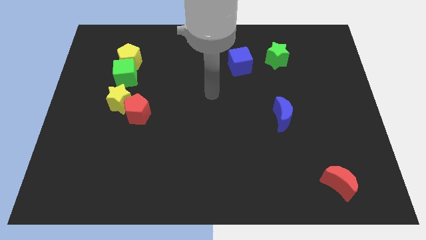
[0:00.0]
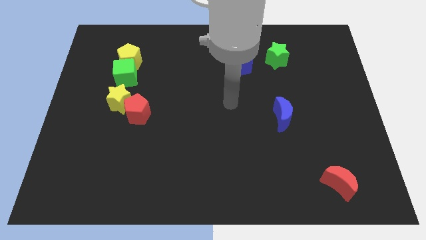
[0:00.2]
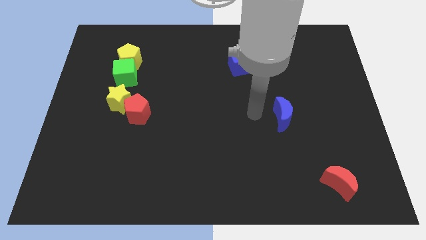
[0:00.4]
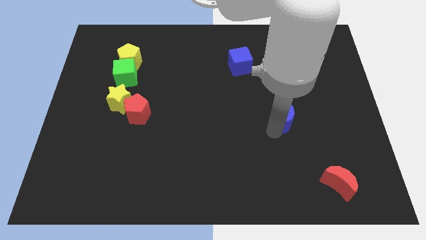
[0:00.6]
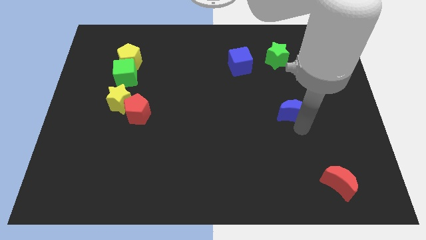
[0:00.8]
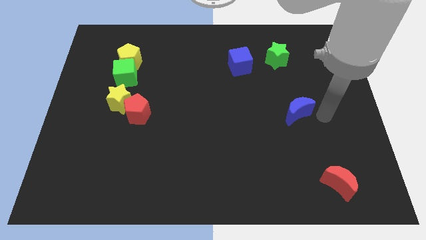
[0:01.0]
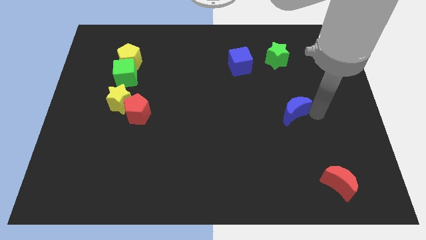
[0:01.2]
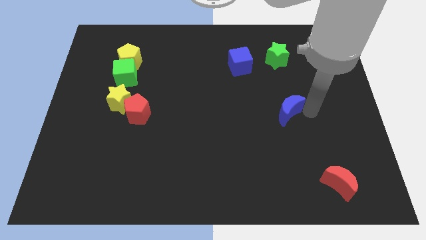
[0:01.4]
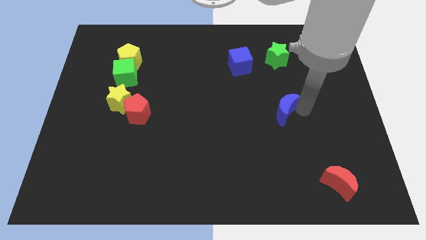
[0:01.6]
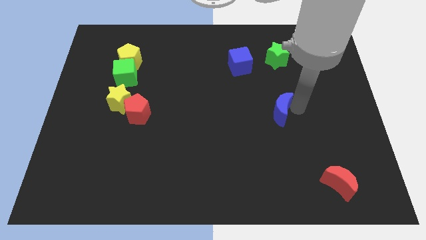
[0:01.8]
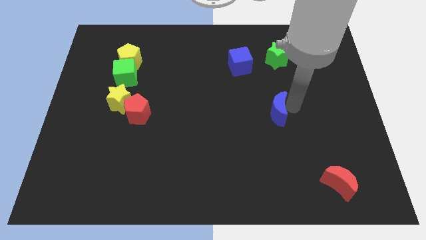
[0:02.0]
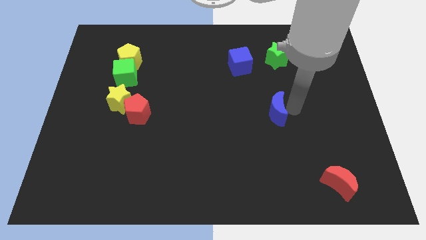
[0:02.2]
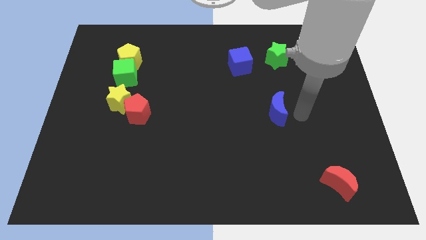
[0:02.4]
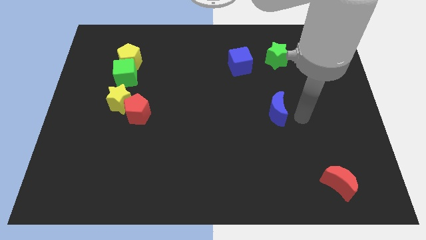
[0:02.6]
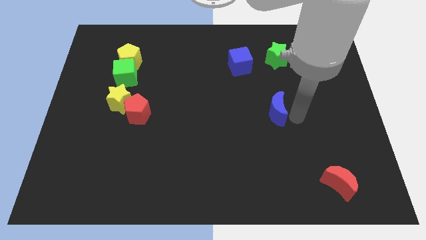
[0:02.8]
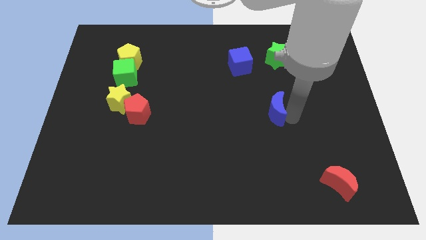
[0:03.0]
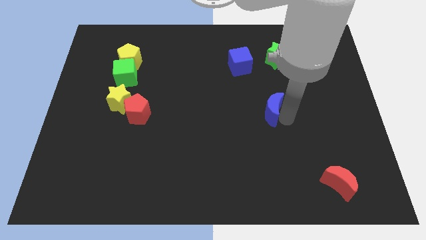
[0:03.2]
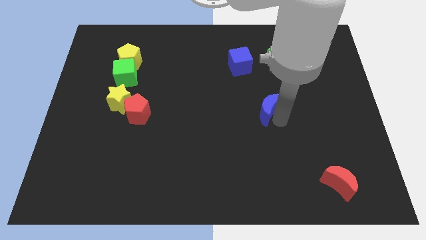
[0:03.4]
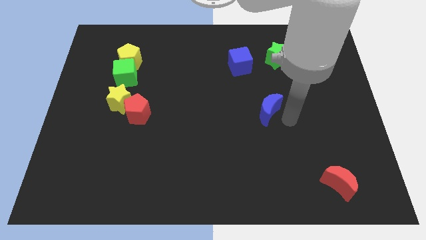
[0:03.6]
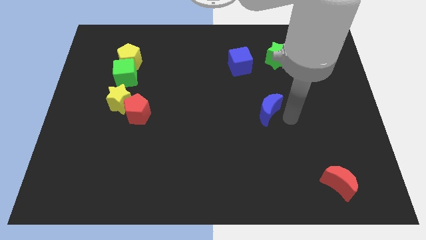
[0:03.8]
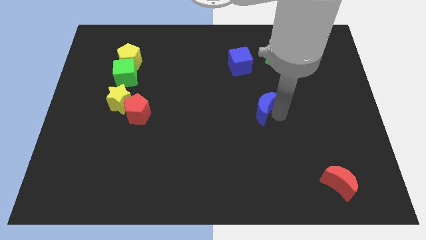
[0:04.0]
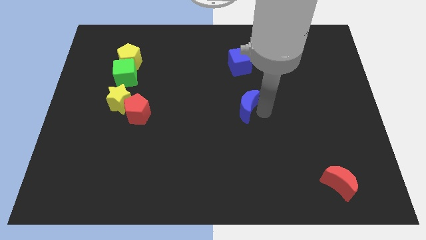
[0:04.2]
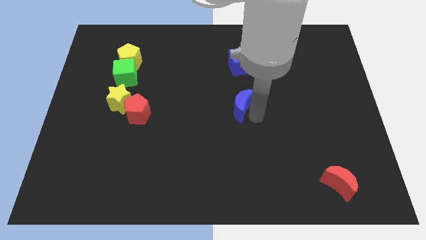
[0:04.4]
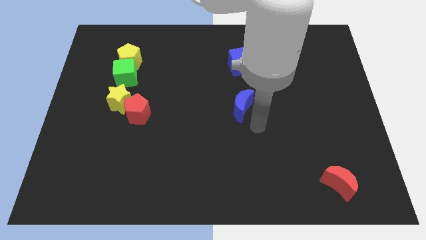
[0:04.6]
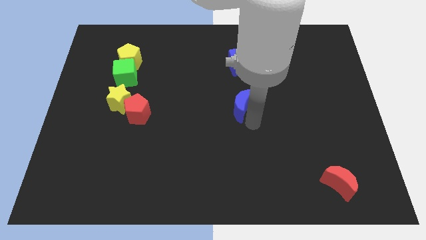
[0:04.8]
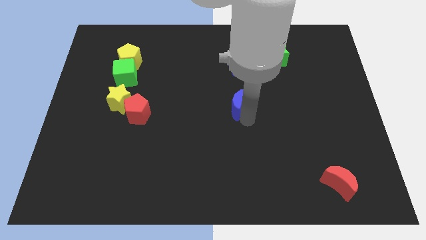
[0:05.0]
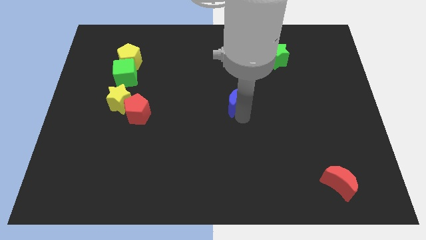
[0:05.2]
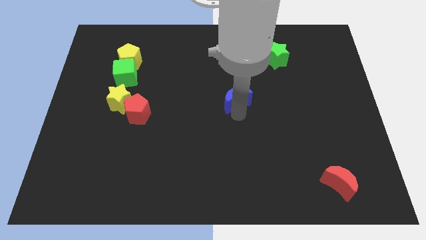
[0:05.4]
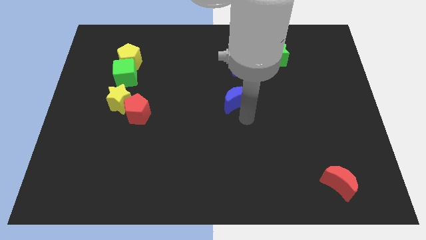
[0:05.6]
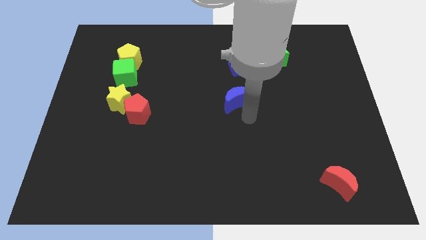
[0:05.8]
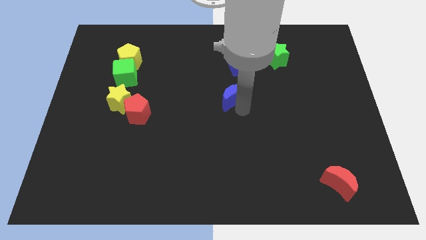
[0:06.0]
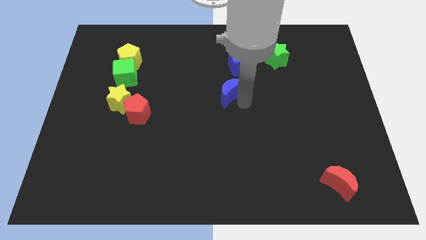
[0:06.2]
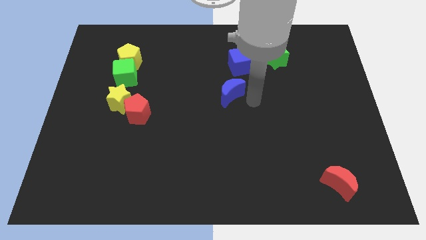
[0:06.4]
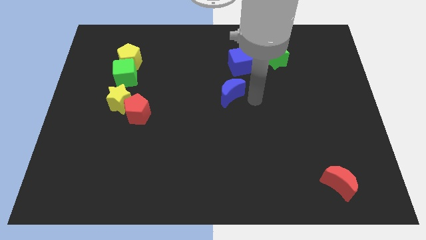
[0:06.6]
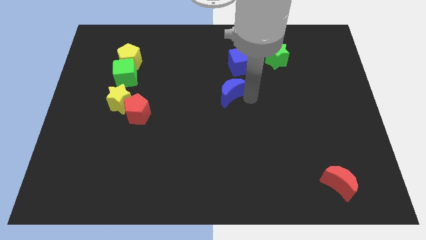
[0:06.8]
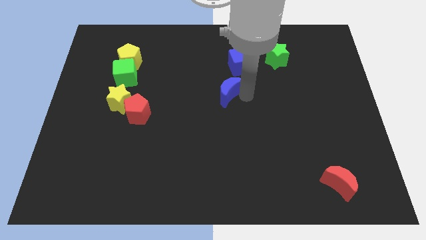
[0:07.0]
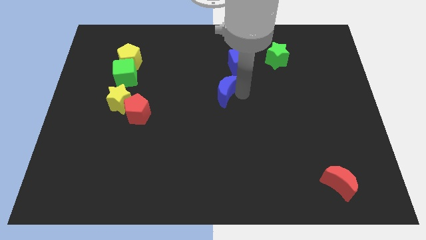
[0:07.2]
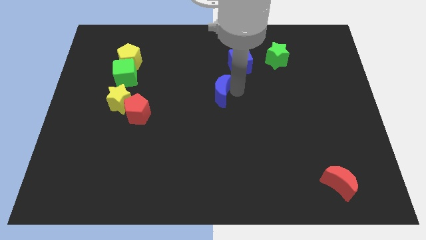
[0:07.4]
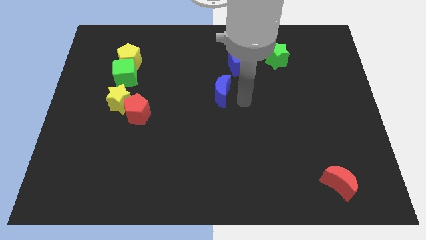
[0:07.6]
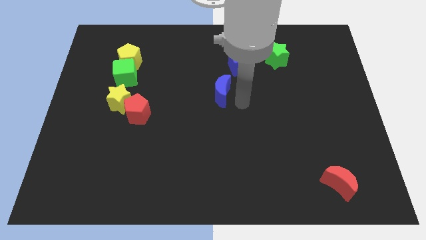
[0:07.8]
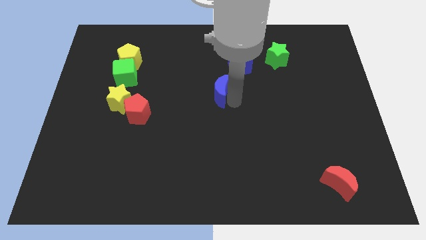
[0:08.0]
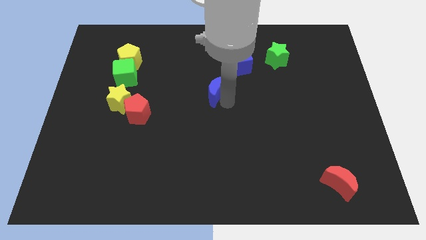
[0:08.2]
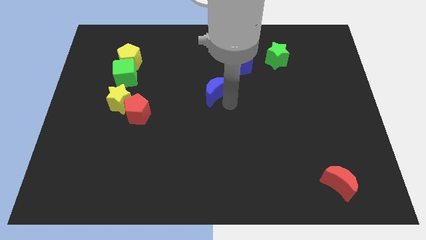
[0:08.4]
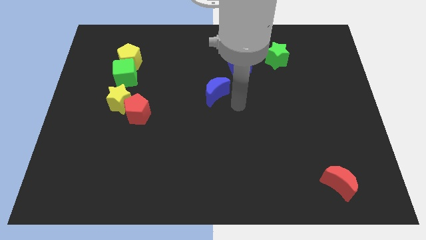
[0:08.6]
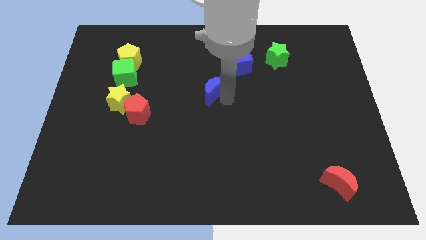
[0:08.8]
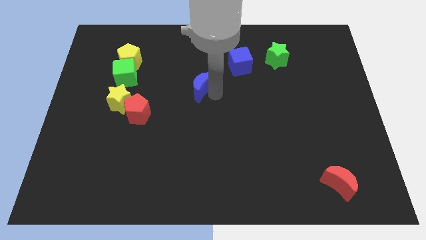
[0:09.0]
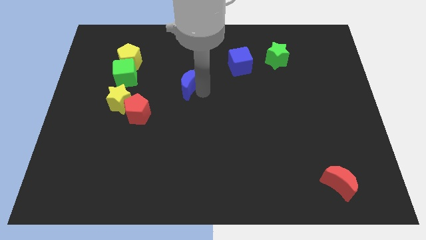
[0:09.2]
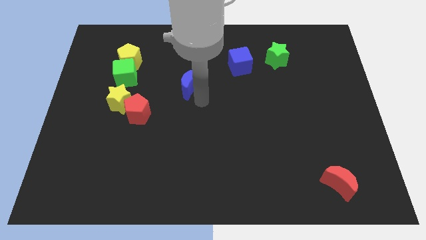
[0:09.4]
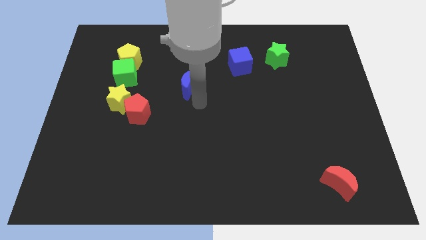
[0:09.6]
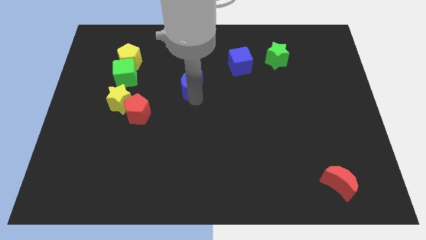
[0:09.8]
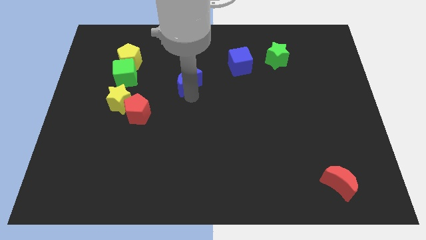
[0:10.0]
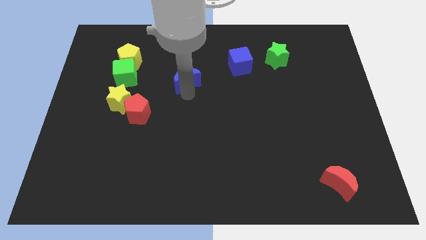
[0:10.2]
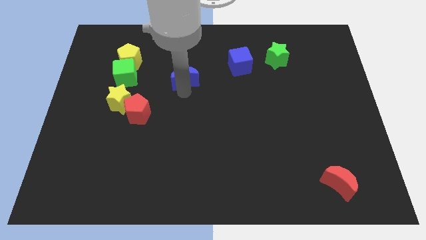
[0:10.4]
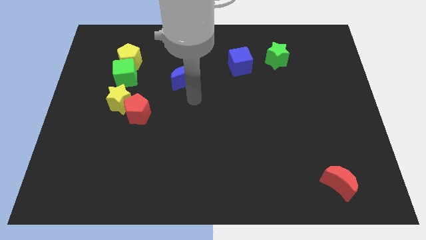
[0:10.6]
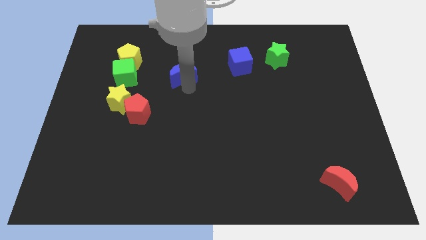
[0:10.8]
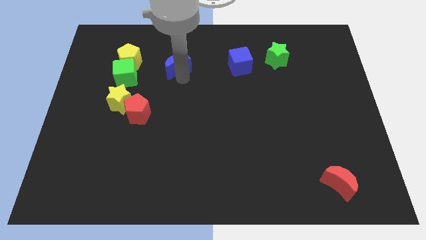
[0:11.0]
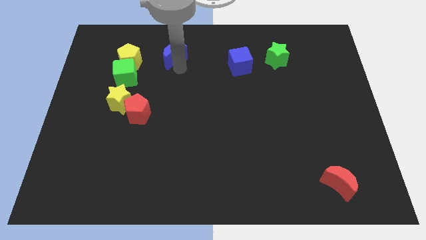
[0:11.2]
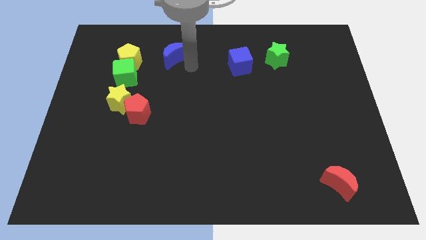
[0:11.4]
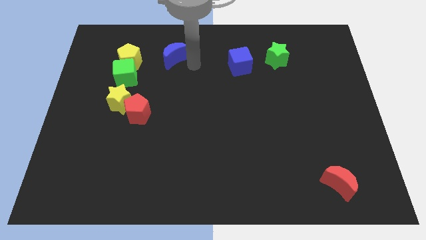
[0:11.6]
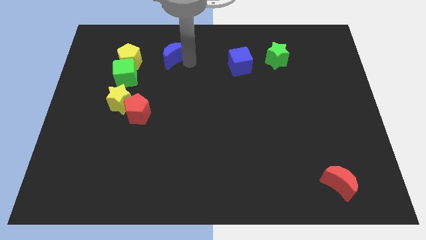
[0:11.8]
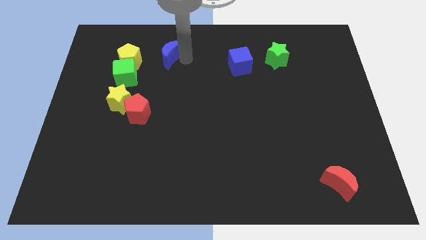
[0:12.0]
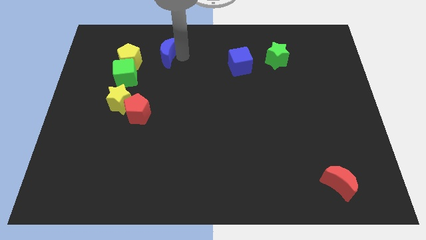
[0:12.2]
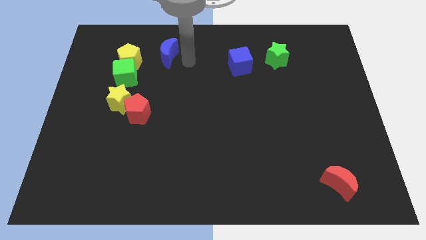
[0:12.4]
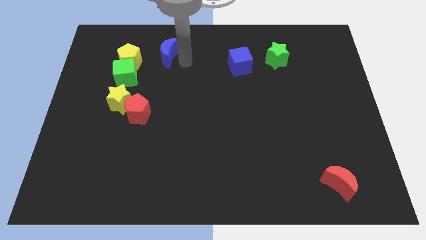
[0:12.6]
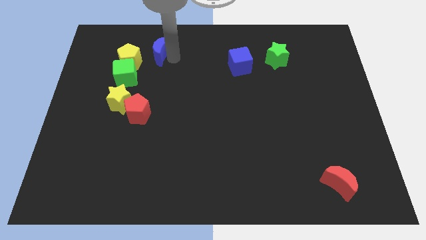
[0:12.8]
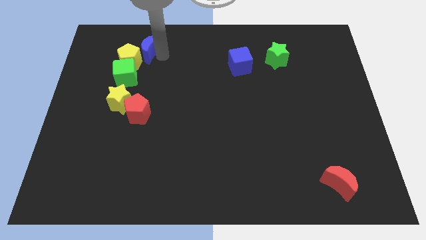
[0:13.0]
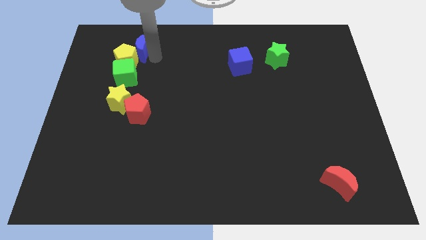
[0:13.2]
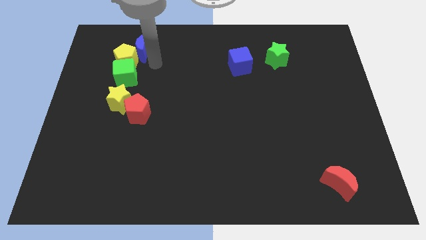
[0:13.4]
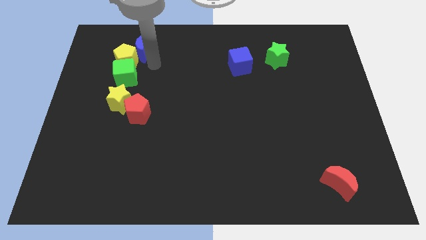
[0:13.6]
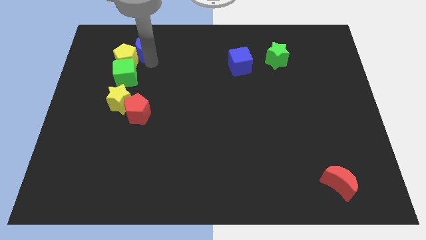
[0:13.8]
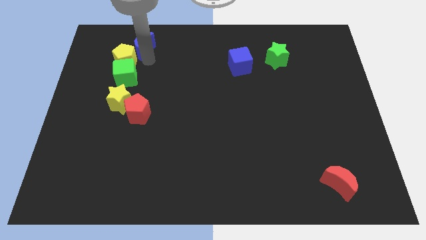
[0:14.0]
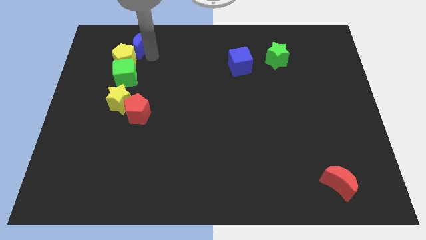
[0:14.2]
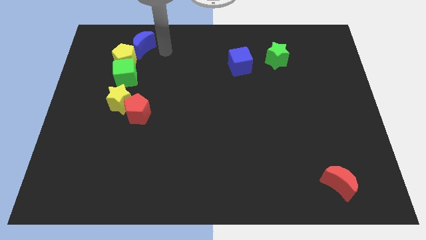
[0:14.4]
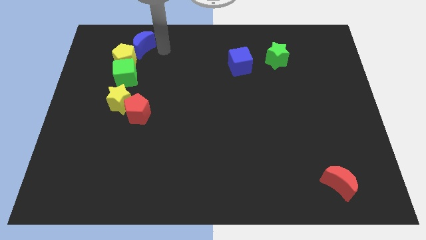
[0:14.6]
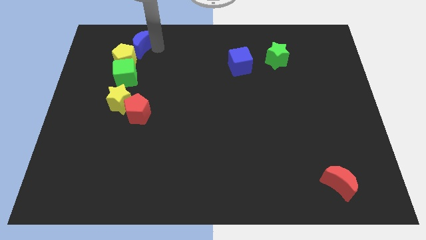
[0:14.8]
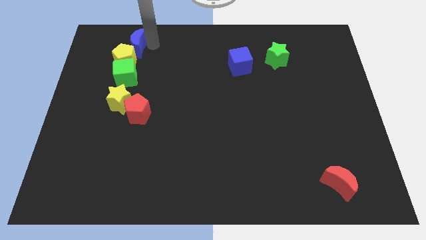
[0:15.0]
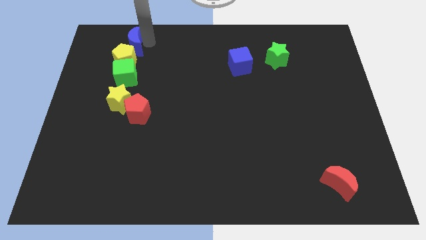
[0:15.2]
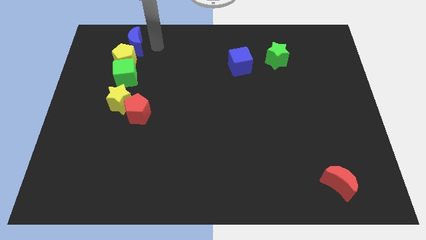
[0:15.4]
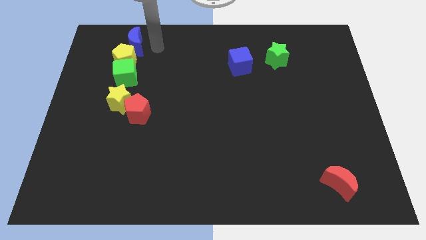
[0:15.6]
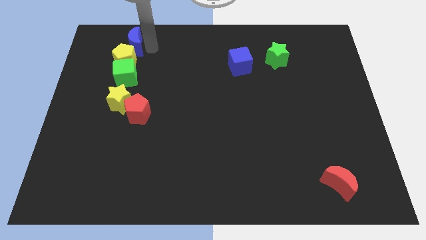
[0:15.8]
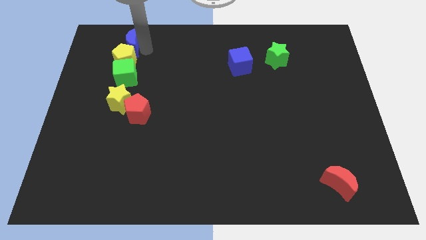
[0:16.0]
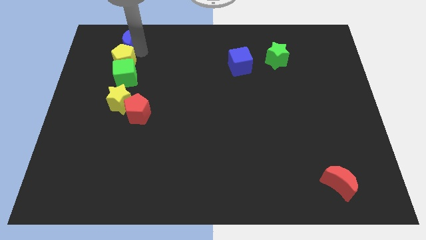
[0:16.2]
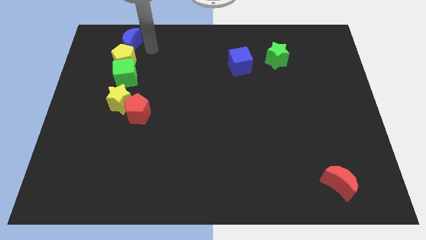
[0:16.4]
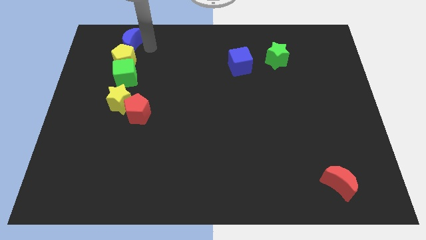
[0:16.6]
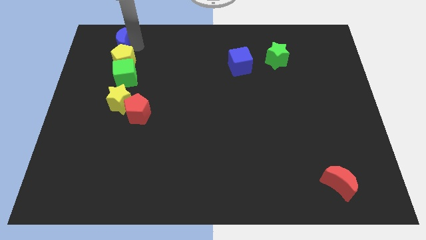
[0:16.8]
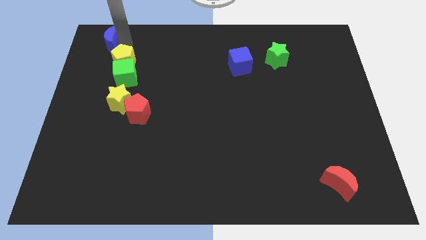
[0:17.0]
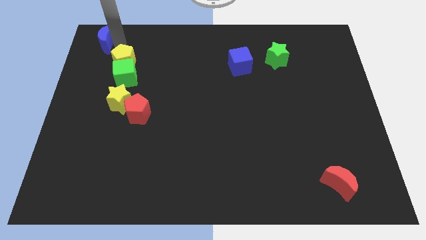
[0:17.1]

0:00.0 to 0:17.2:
put the blue moon to the top left
